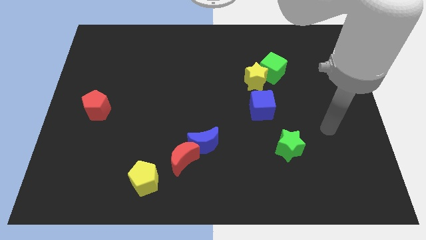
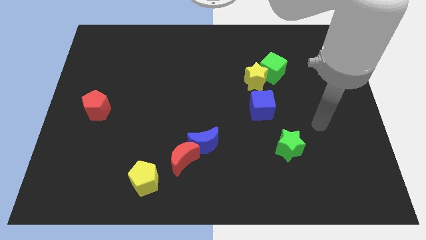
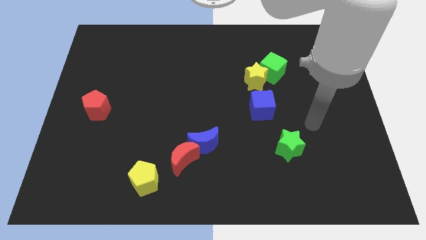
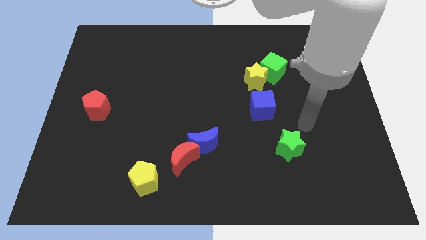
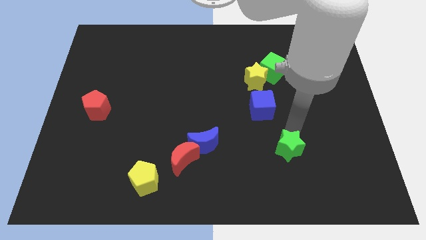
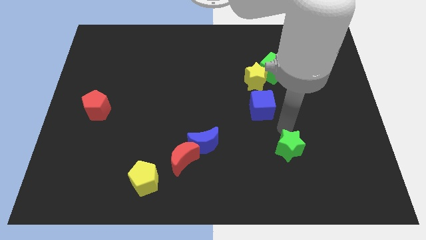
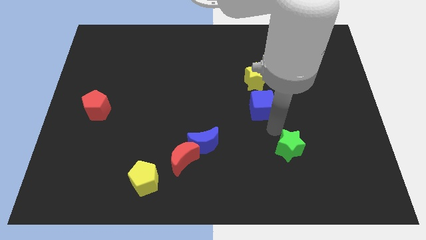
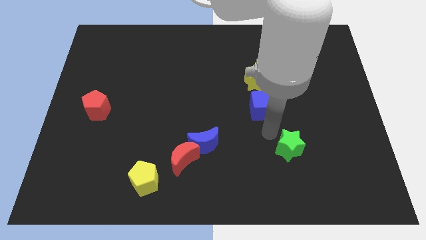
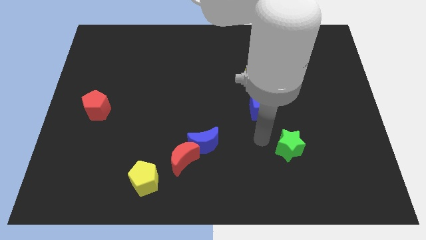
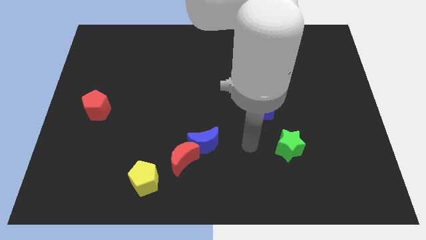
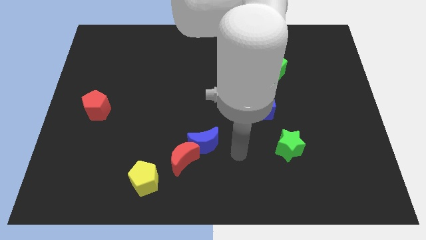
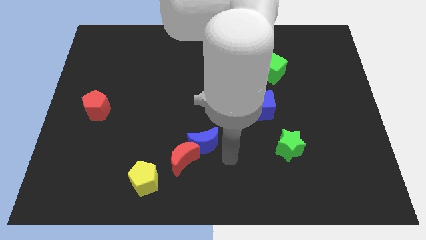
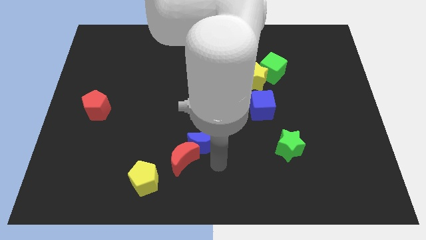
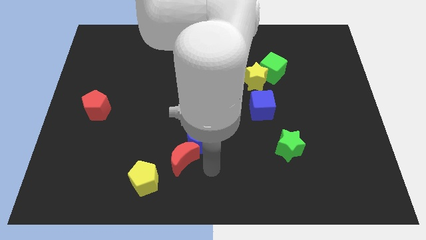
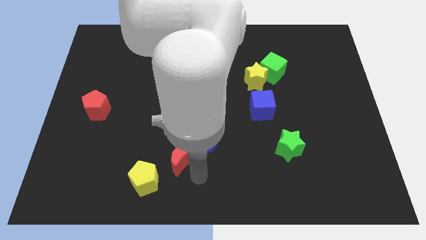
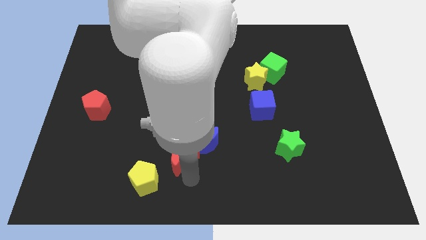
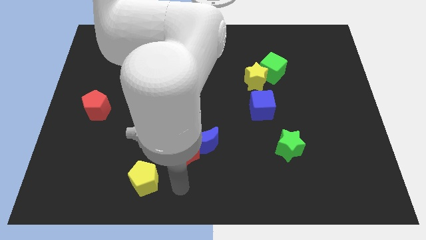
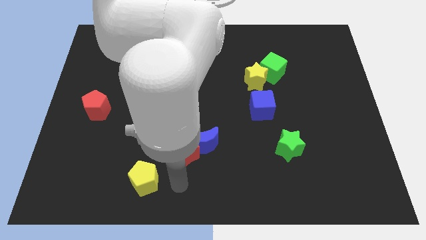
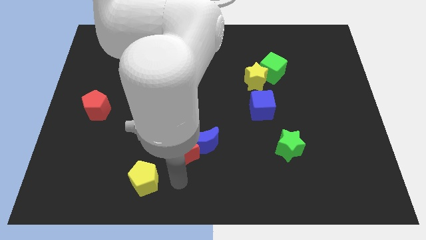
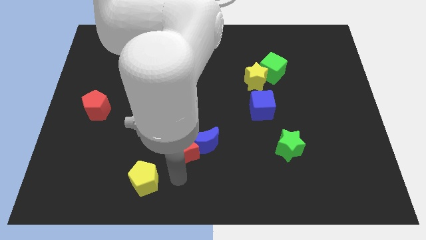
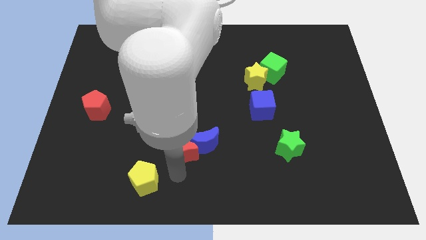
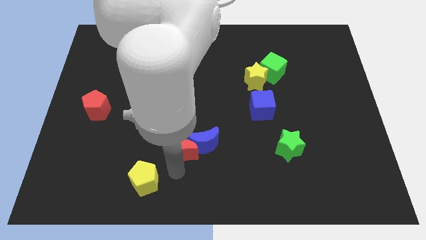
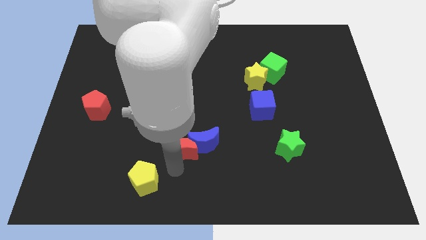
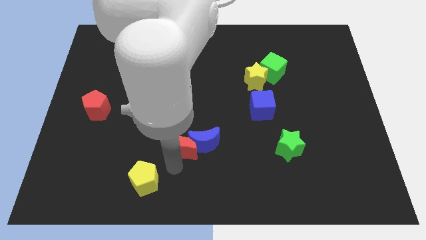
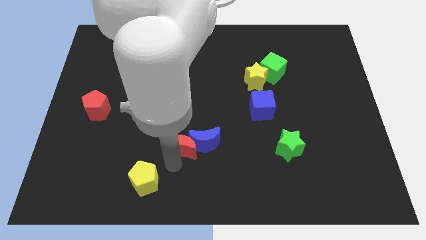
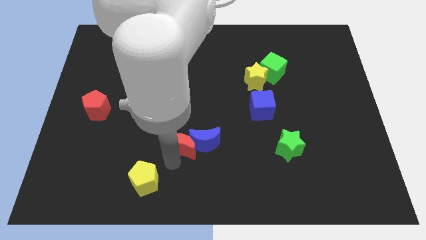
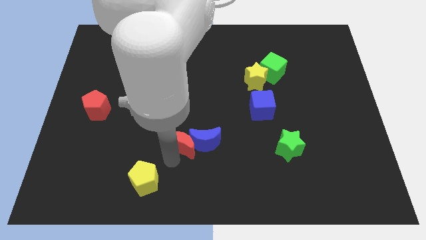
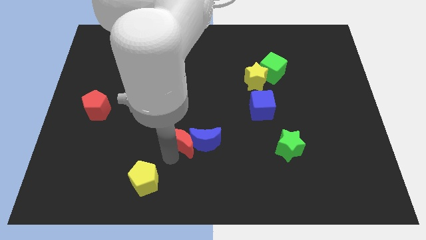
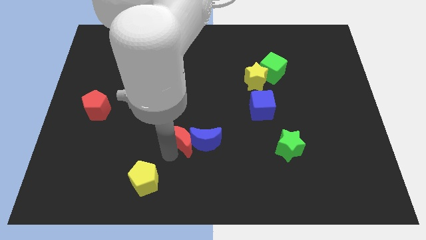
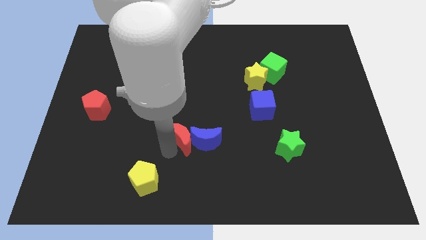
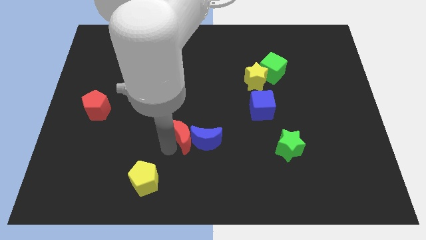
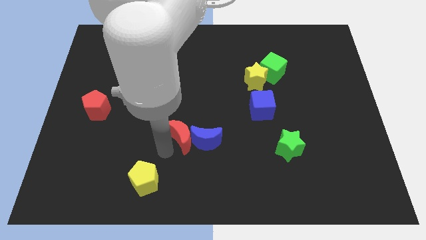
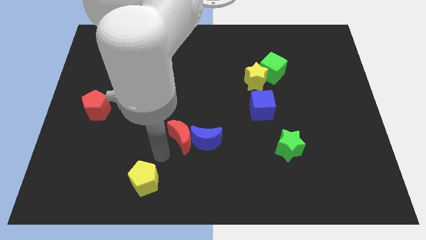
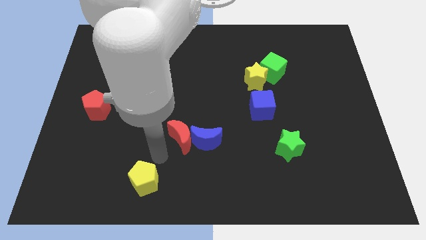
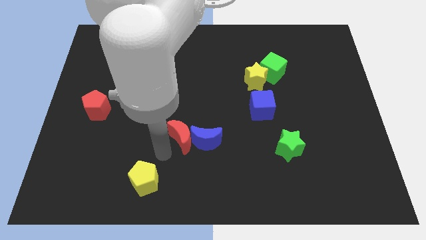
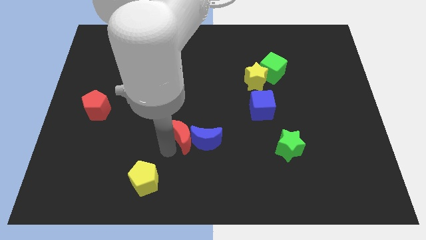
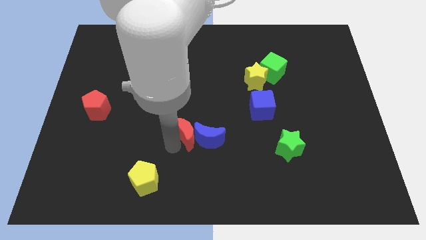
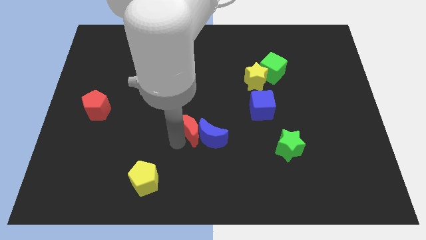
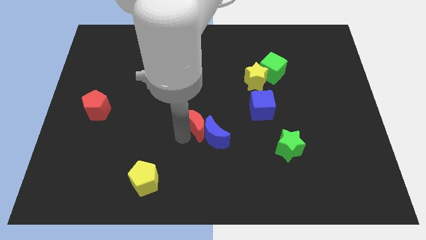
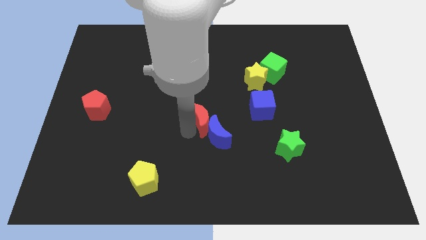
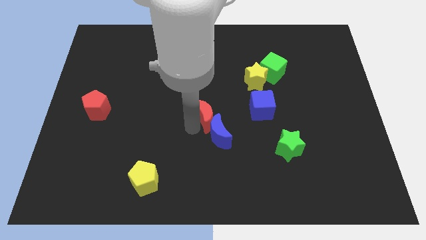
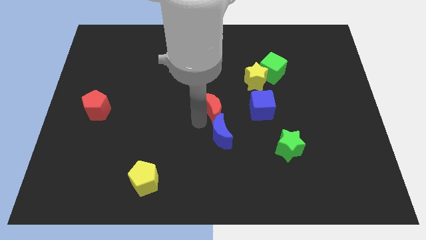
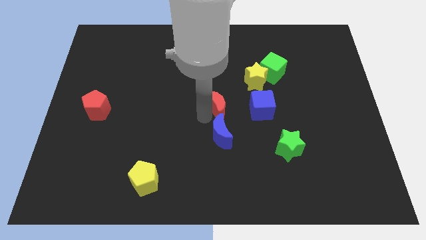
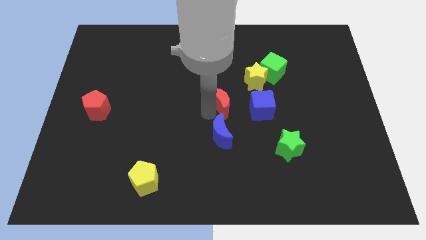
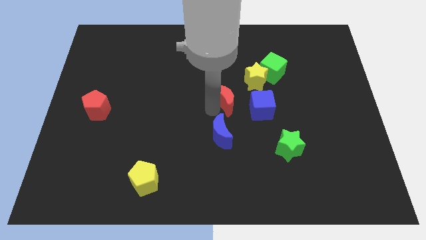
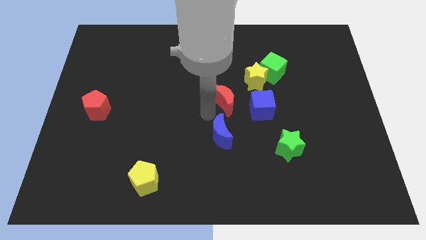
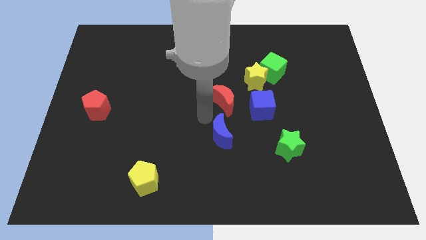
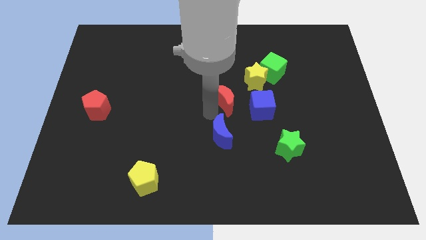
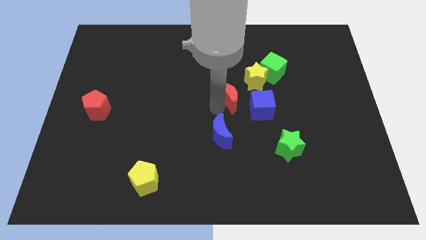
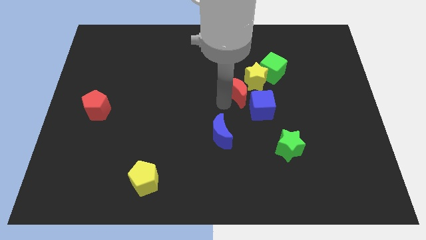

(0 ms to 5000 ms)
slide the red moon to the yellow star

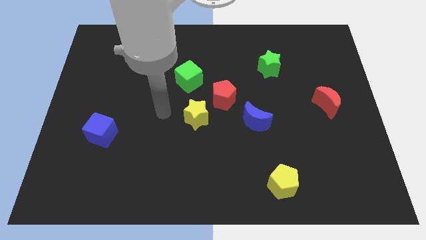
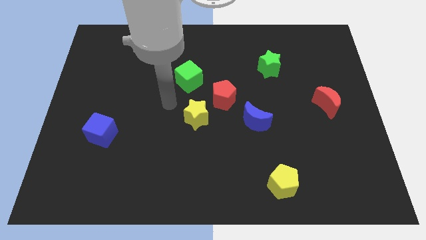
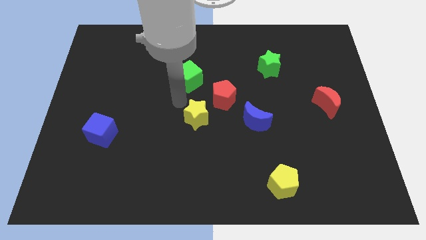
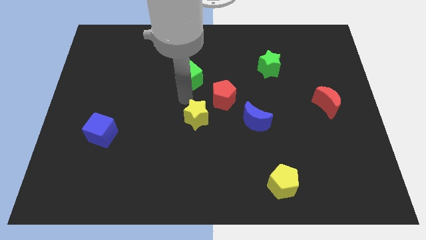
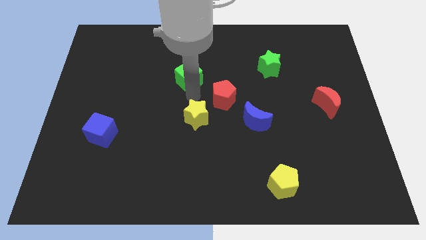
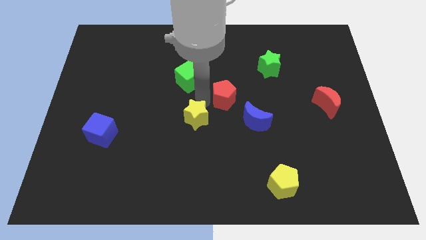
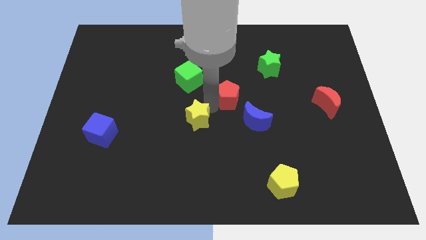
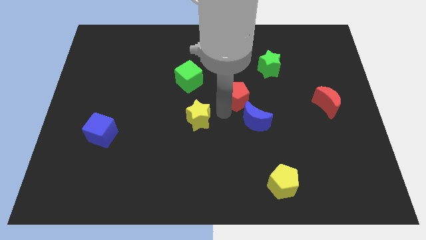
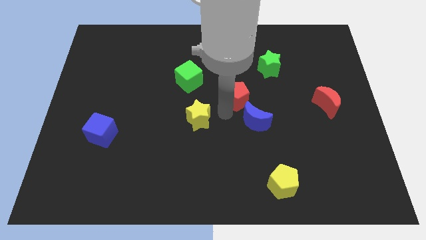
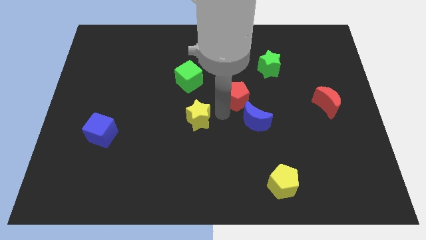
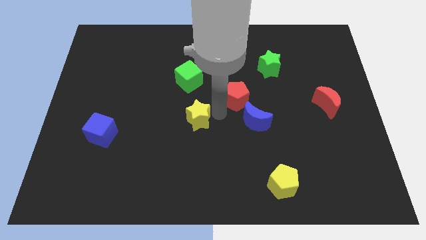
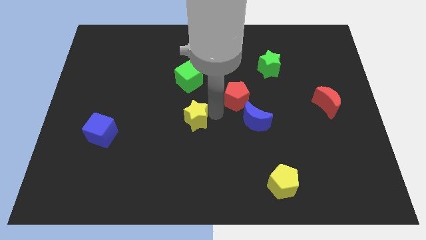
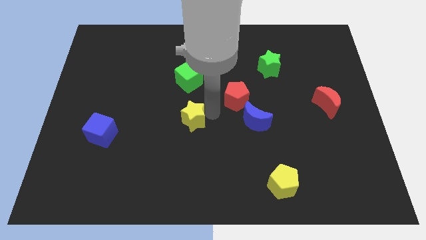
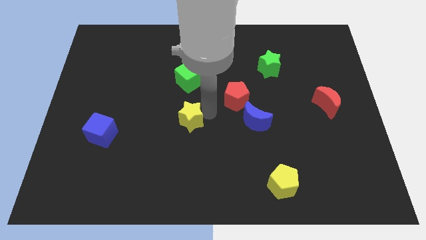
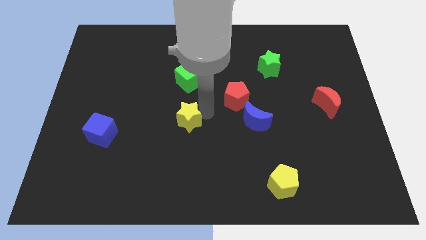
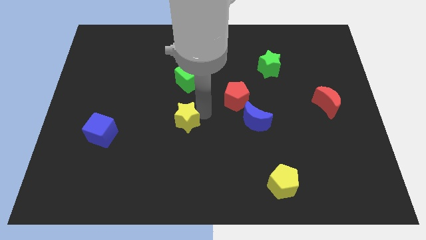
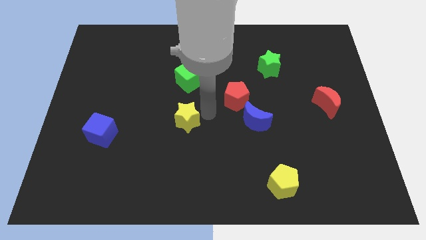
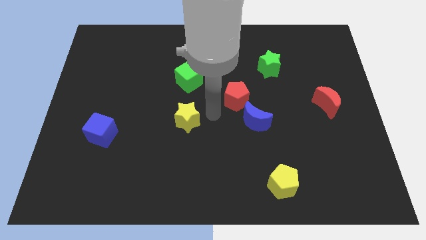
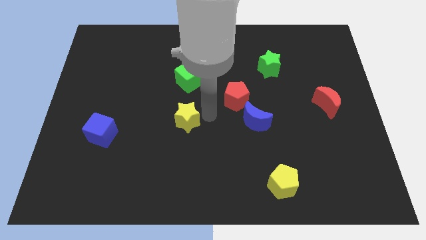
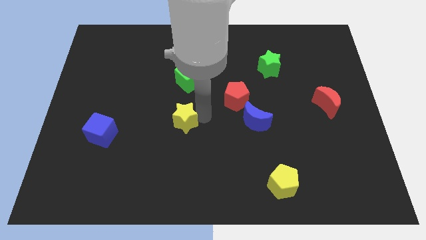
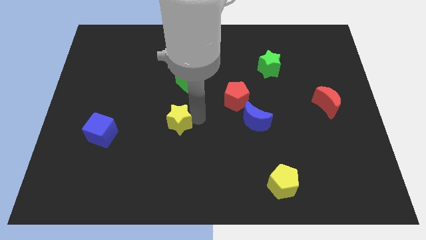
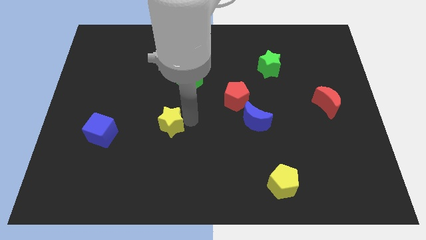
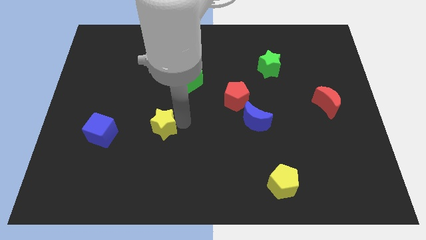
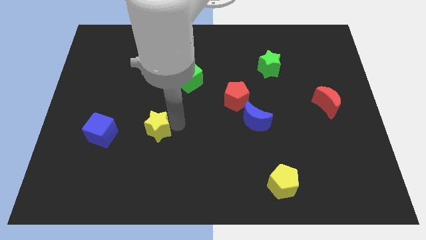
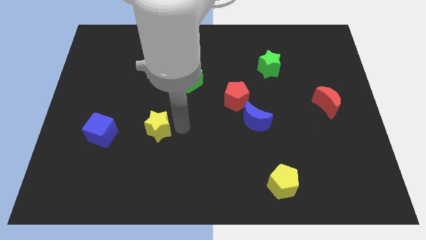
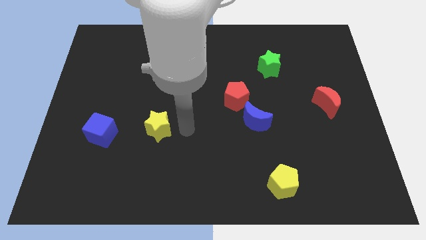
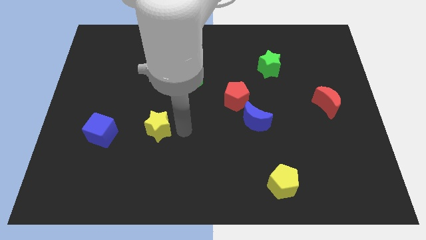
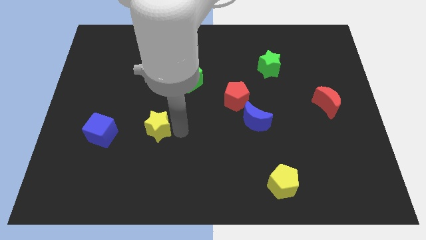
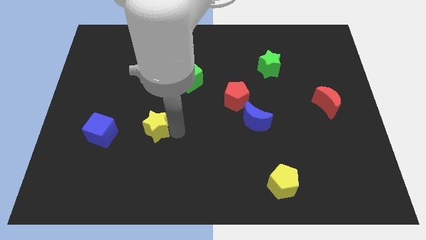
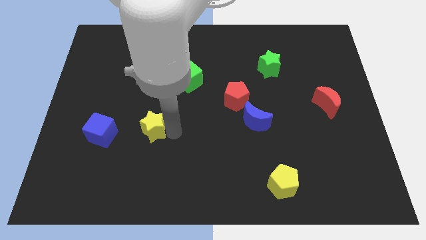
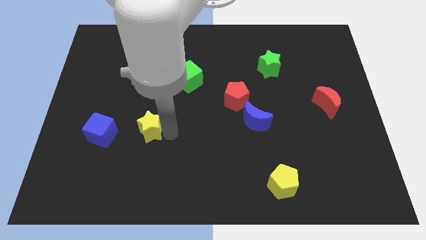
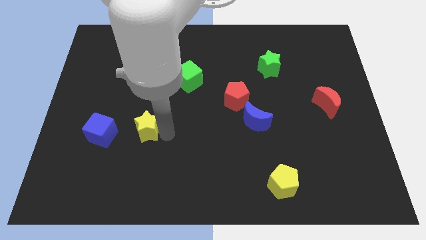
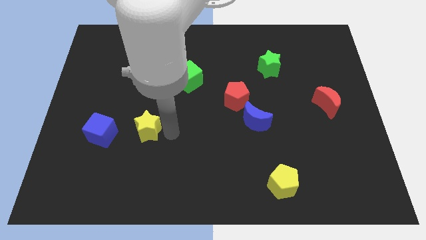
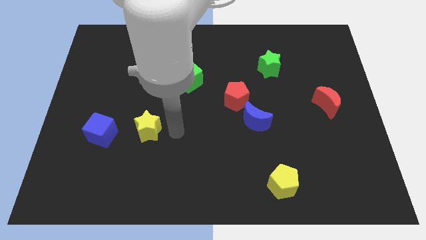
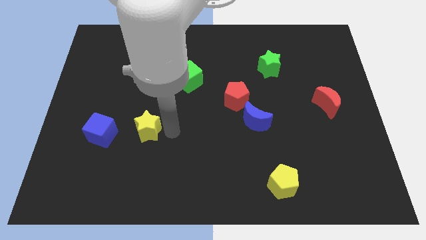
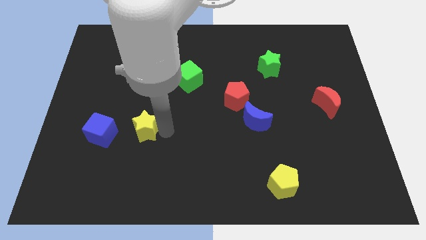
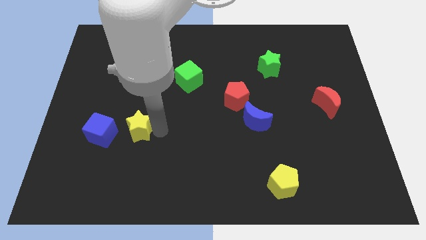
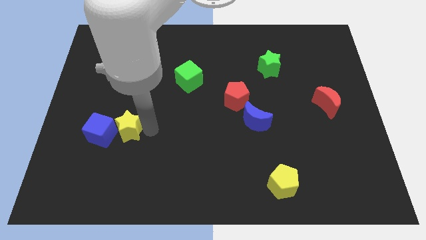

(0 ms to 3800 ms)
put the yellow star close to the blue cube
